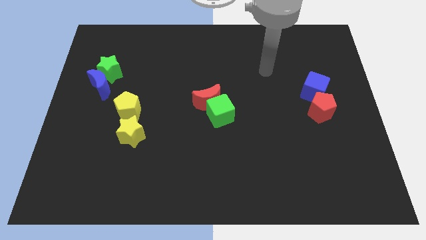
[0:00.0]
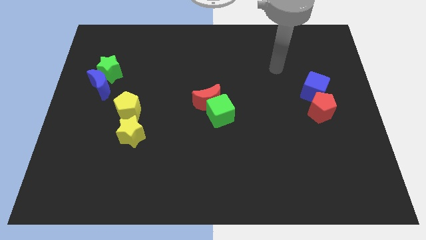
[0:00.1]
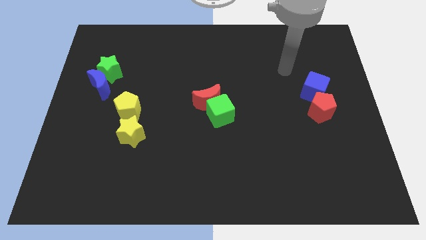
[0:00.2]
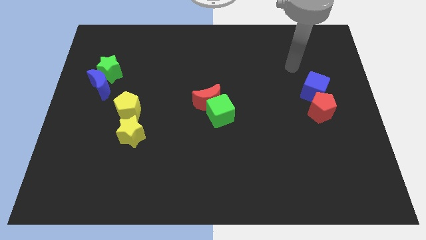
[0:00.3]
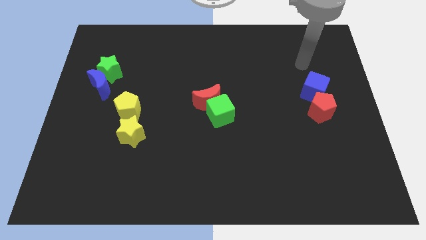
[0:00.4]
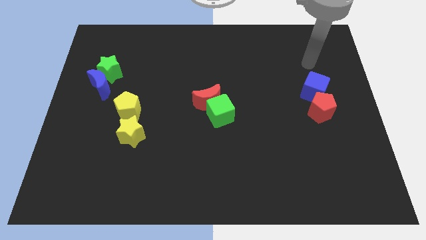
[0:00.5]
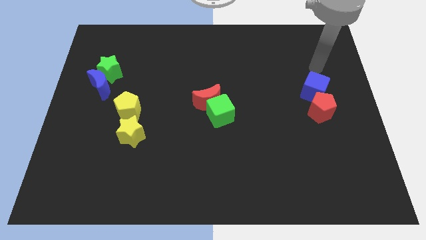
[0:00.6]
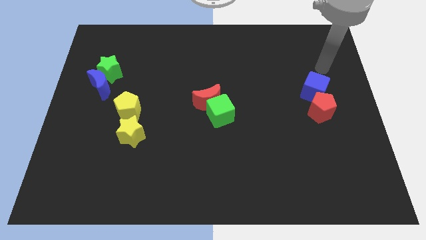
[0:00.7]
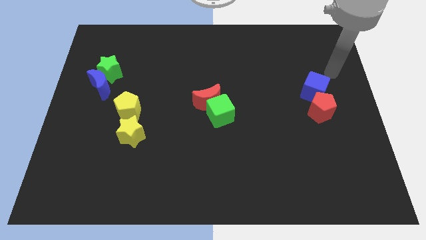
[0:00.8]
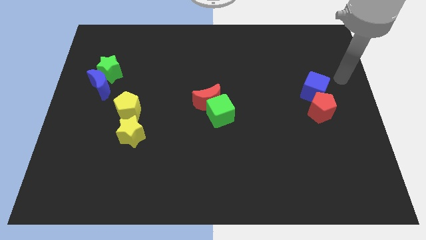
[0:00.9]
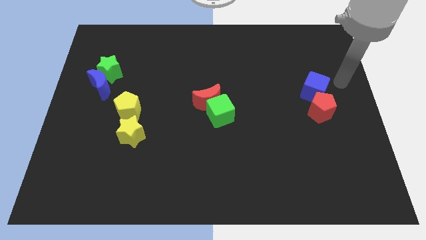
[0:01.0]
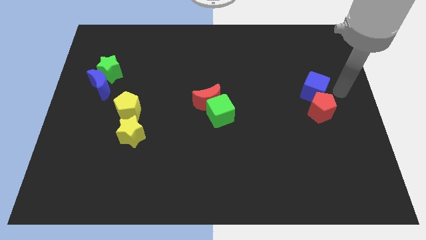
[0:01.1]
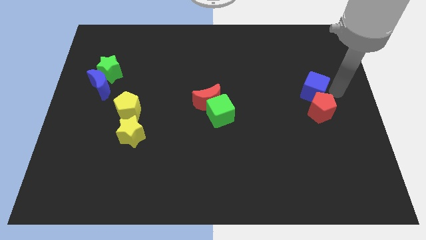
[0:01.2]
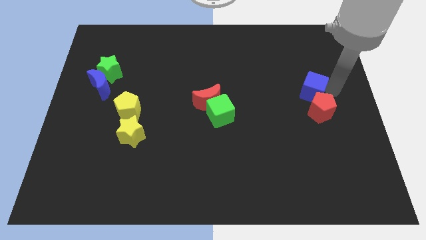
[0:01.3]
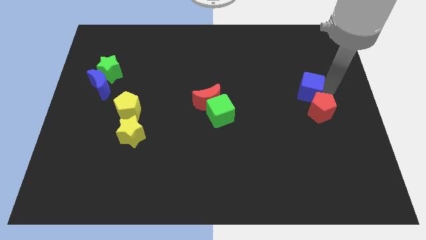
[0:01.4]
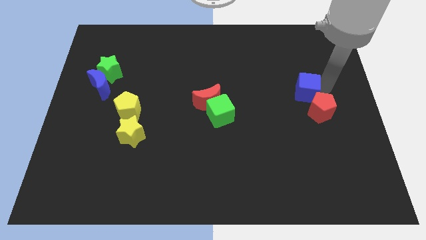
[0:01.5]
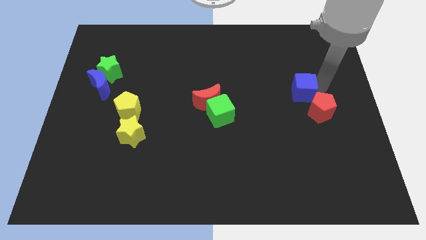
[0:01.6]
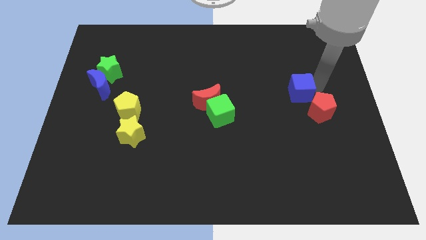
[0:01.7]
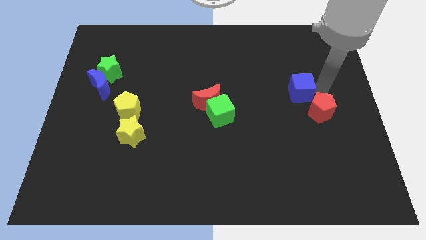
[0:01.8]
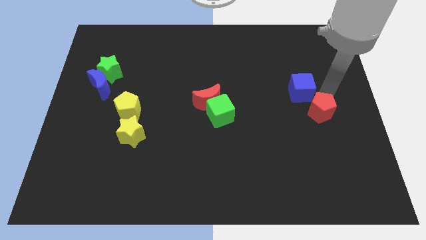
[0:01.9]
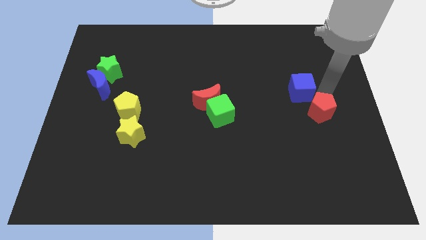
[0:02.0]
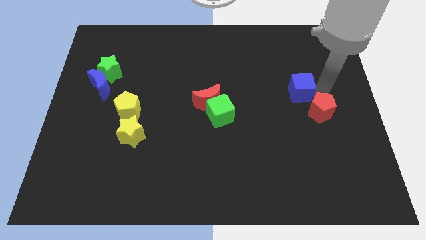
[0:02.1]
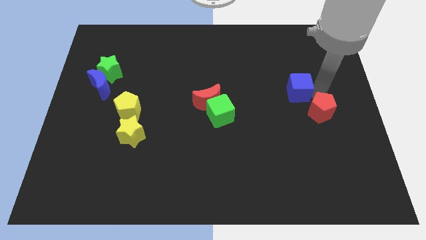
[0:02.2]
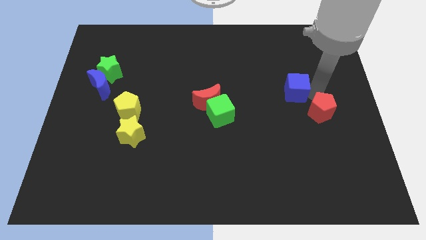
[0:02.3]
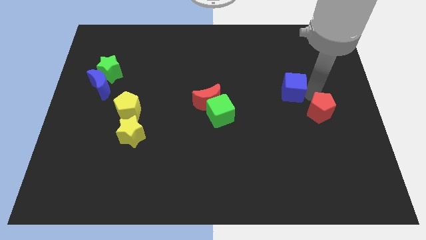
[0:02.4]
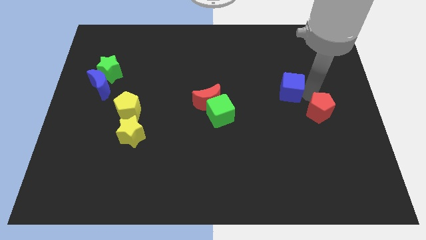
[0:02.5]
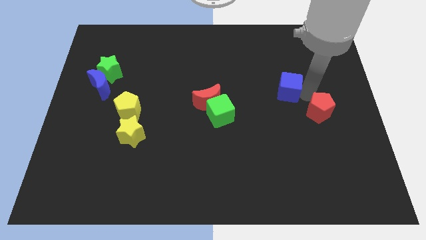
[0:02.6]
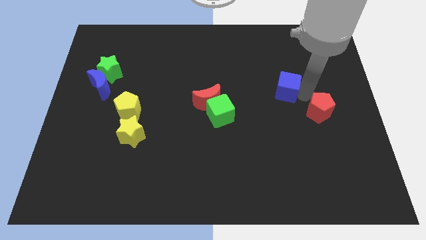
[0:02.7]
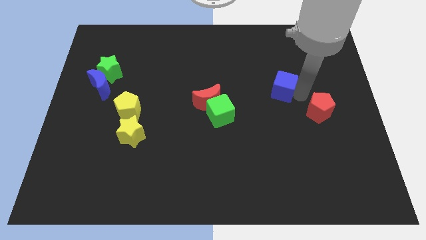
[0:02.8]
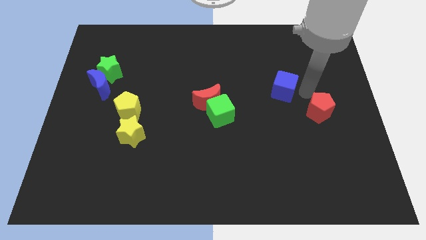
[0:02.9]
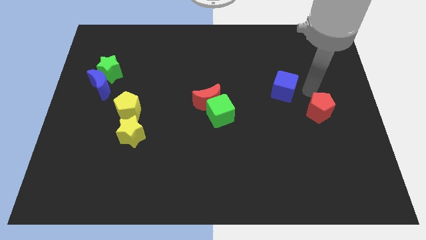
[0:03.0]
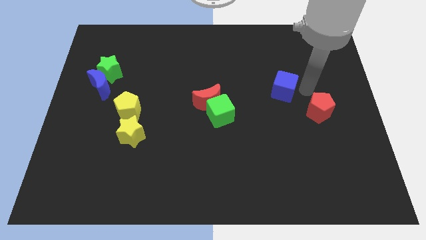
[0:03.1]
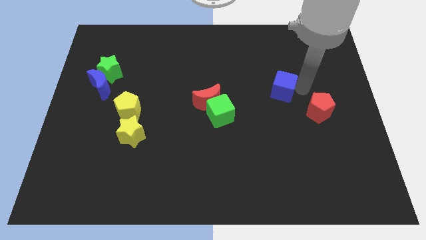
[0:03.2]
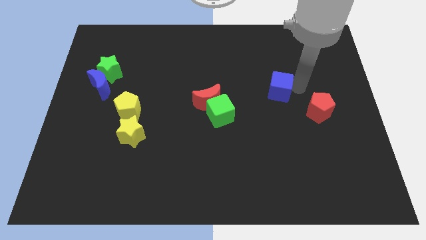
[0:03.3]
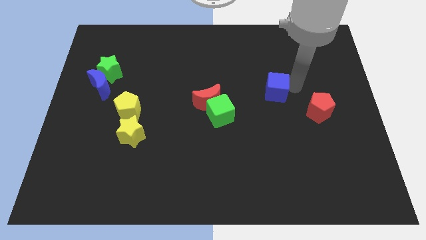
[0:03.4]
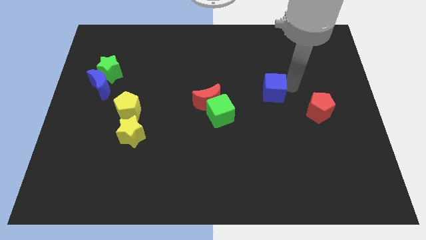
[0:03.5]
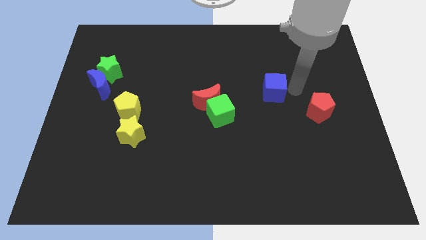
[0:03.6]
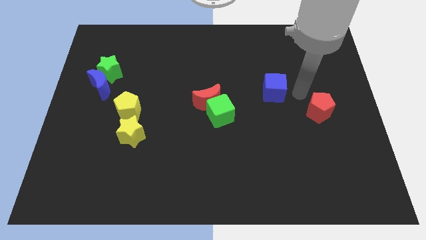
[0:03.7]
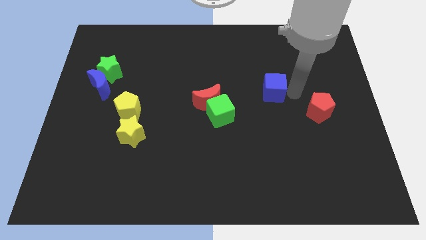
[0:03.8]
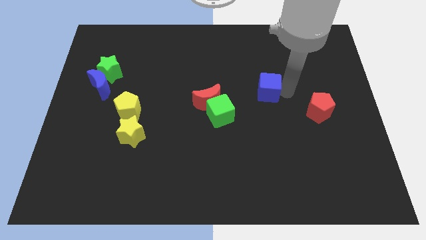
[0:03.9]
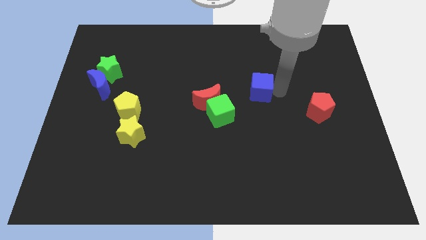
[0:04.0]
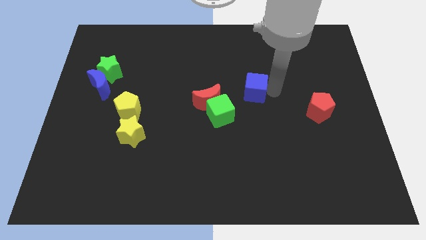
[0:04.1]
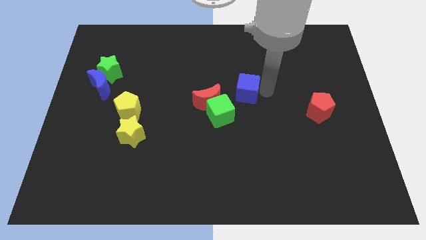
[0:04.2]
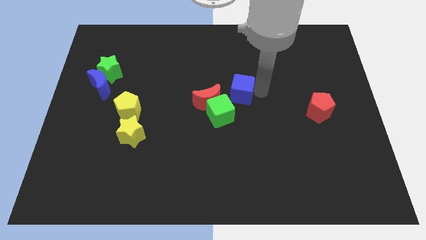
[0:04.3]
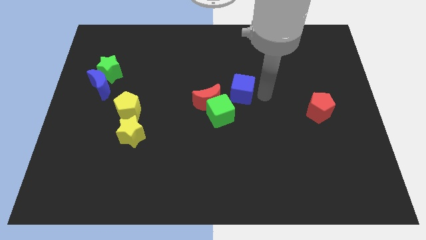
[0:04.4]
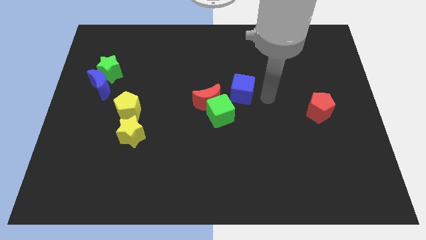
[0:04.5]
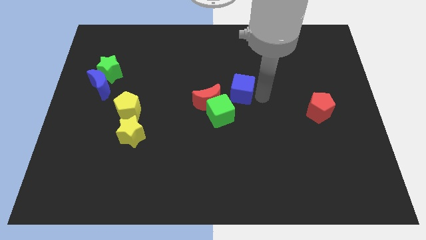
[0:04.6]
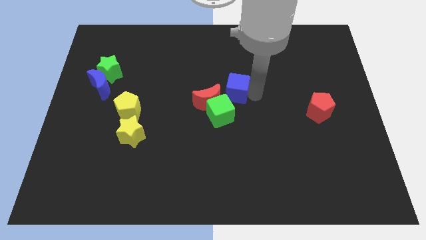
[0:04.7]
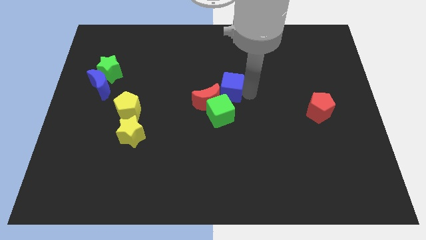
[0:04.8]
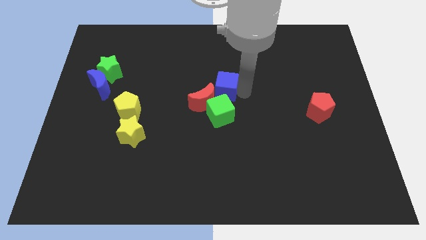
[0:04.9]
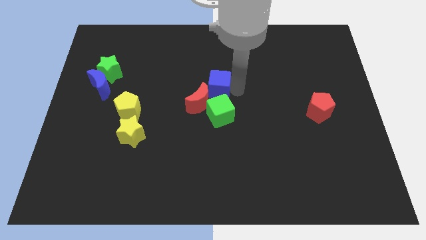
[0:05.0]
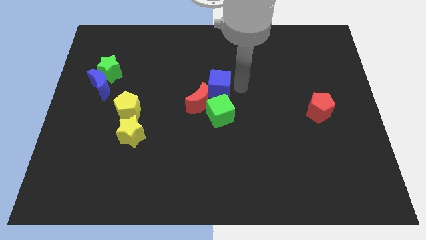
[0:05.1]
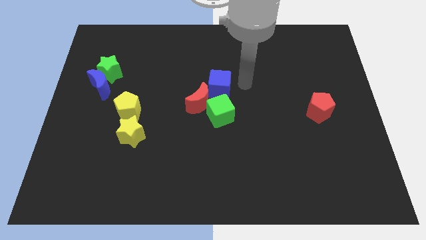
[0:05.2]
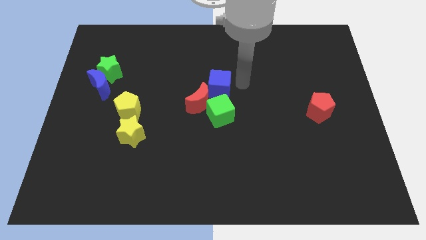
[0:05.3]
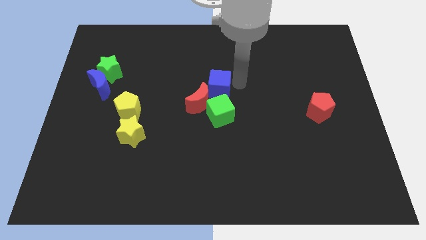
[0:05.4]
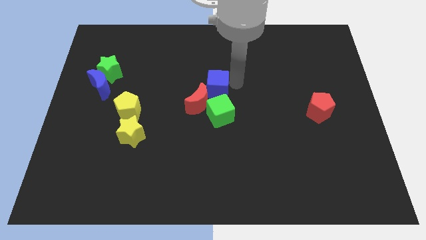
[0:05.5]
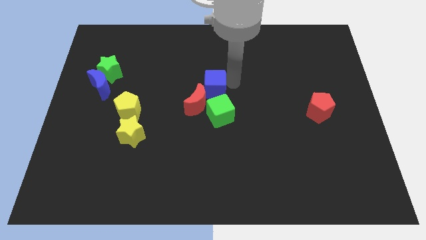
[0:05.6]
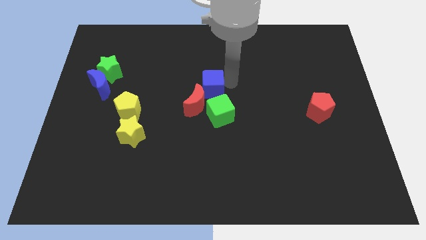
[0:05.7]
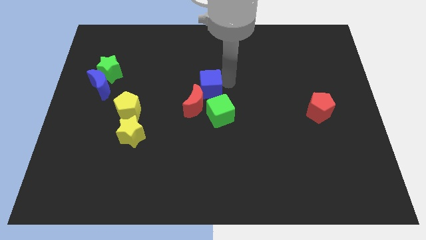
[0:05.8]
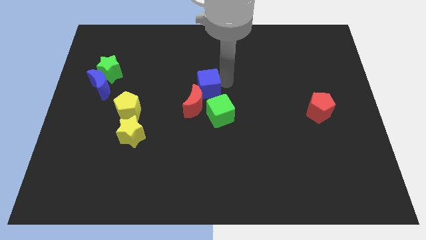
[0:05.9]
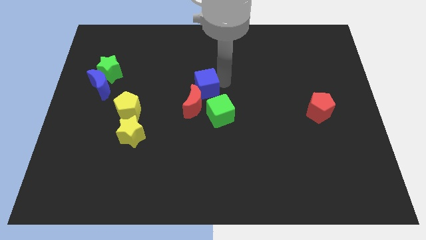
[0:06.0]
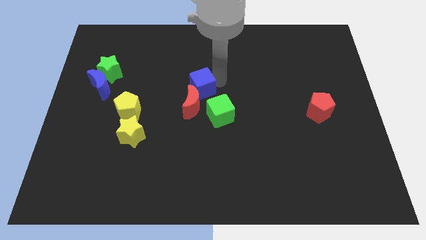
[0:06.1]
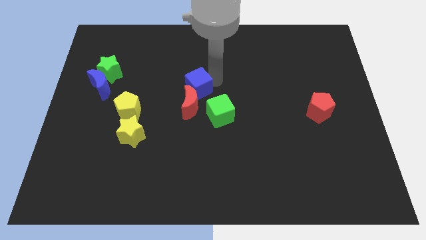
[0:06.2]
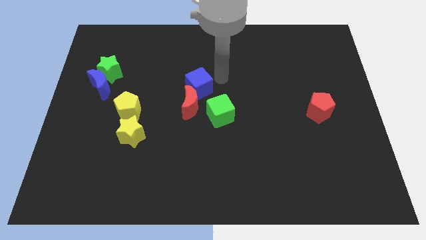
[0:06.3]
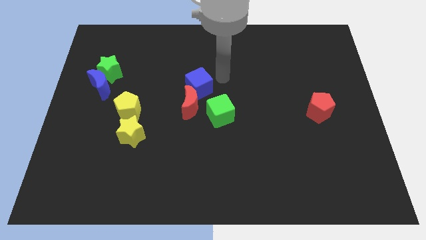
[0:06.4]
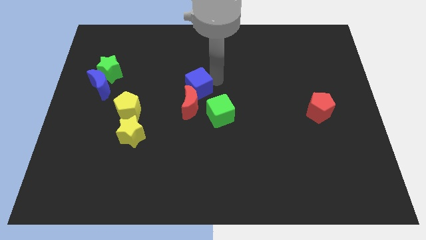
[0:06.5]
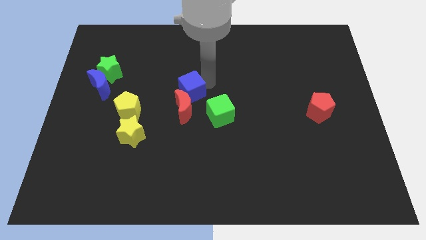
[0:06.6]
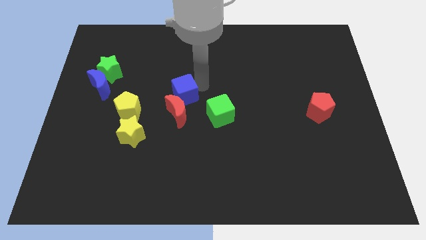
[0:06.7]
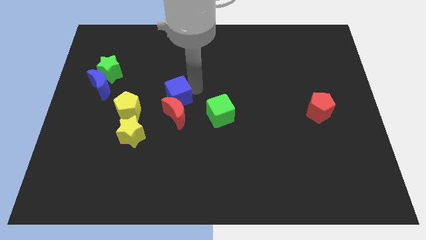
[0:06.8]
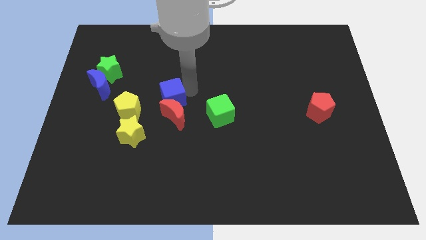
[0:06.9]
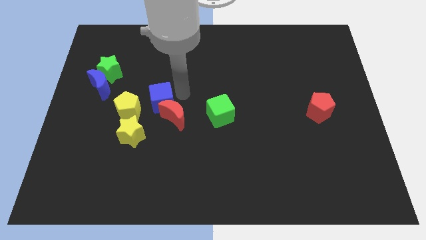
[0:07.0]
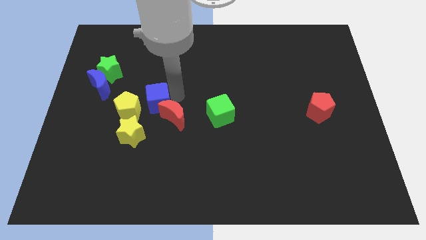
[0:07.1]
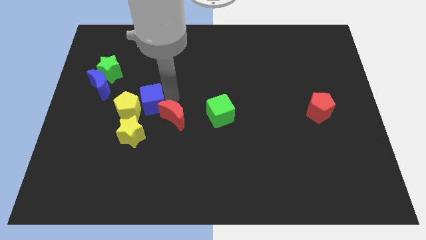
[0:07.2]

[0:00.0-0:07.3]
put the blue cube to the yellow pentagon
